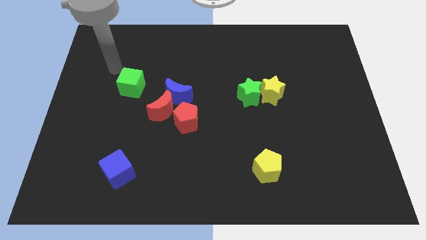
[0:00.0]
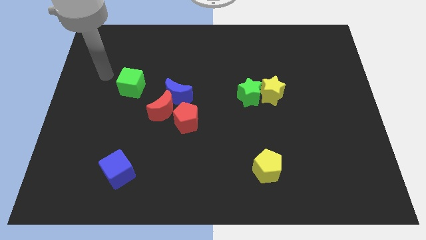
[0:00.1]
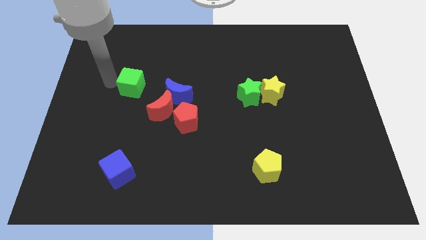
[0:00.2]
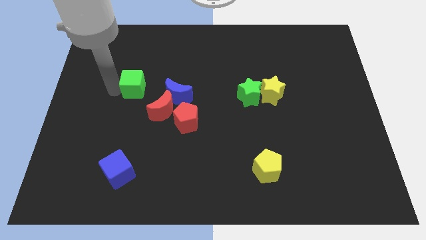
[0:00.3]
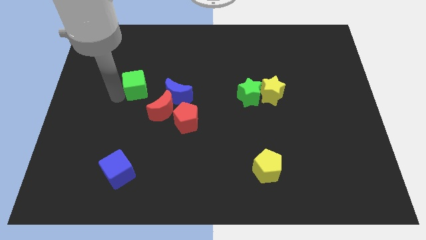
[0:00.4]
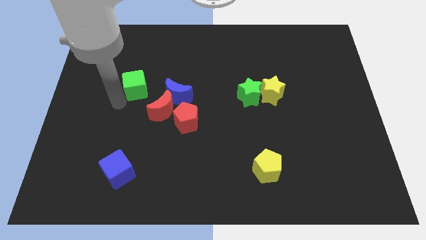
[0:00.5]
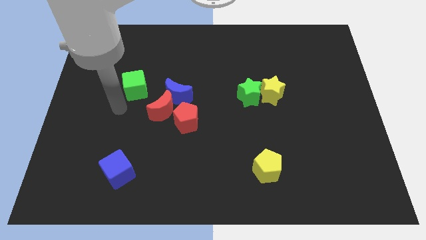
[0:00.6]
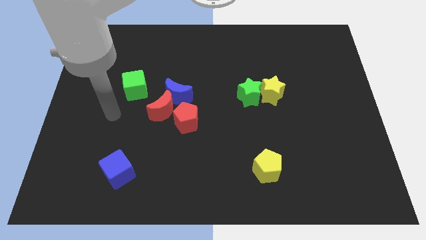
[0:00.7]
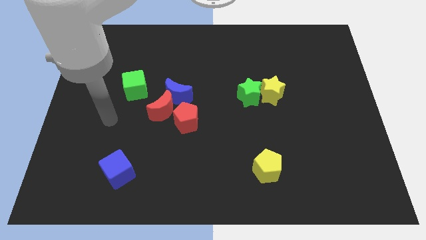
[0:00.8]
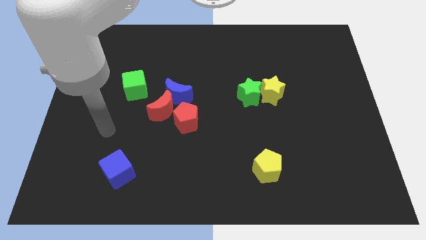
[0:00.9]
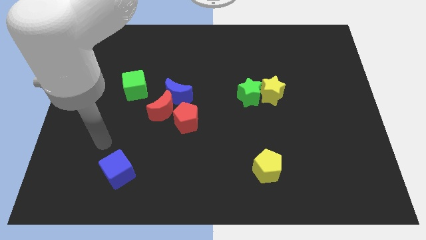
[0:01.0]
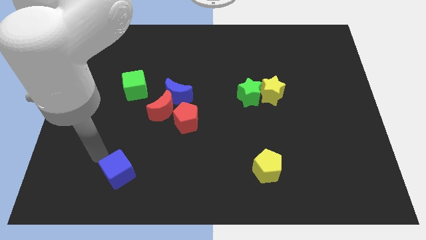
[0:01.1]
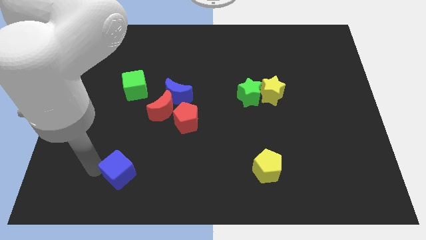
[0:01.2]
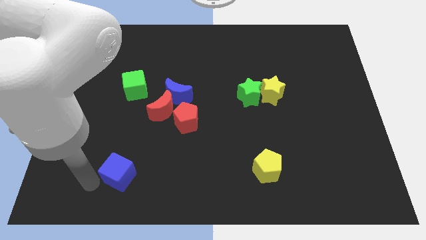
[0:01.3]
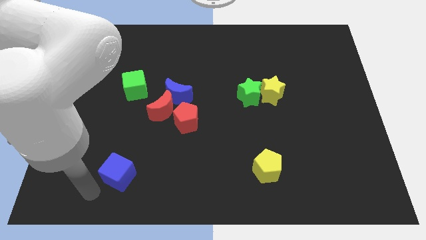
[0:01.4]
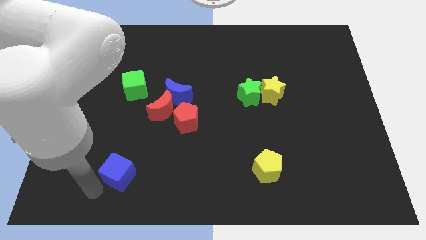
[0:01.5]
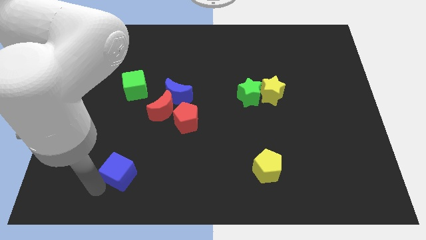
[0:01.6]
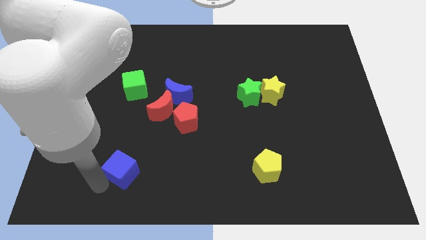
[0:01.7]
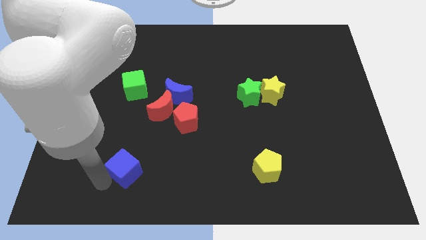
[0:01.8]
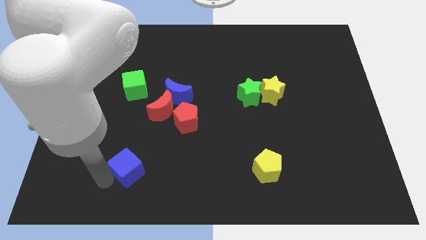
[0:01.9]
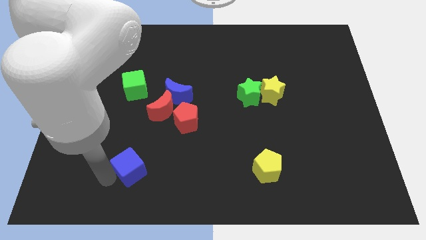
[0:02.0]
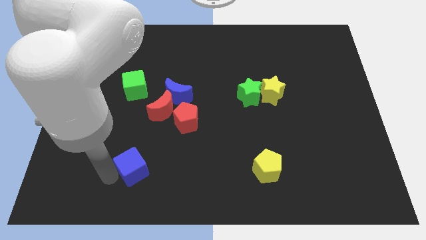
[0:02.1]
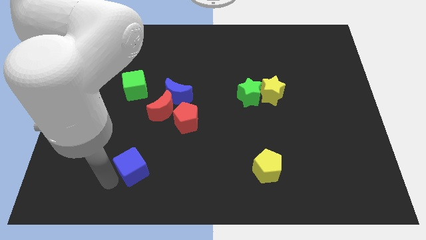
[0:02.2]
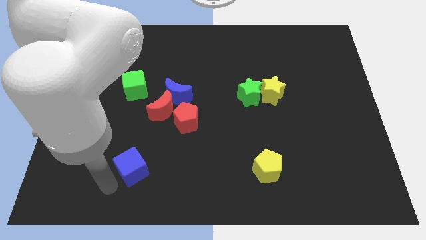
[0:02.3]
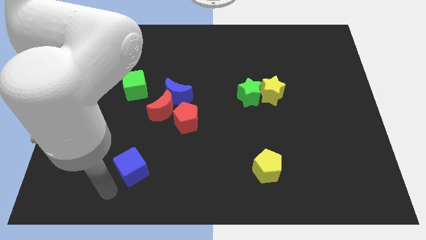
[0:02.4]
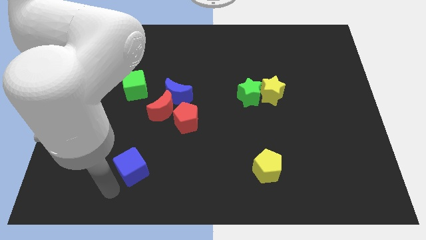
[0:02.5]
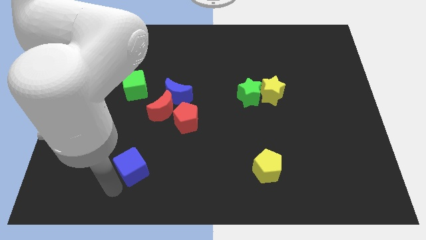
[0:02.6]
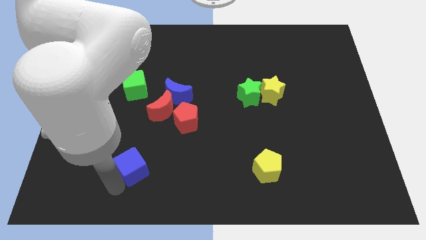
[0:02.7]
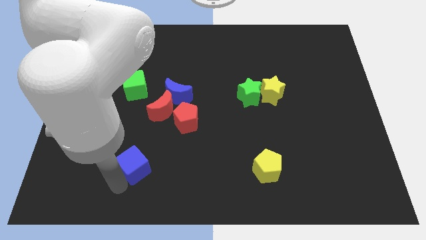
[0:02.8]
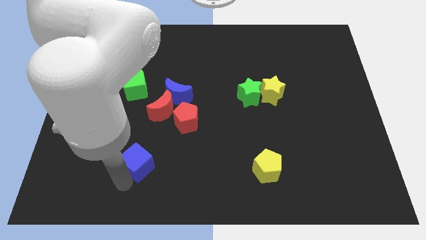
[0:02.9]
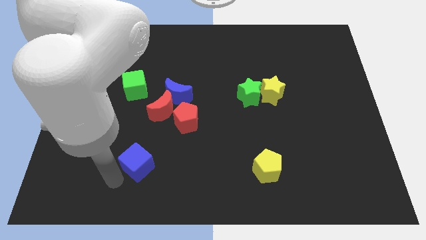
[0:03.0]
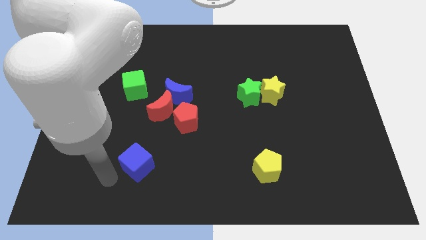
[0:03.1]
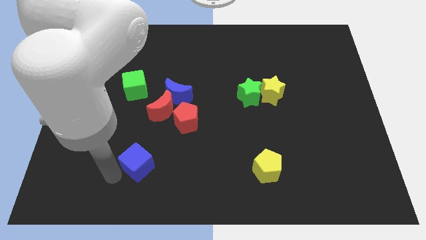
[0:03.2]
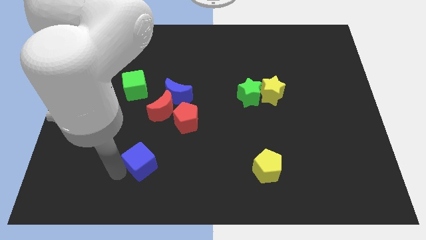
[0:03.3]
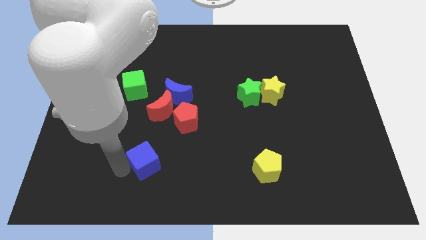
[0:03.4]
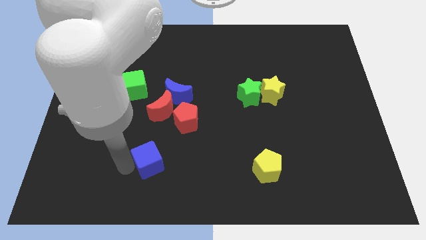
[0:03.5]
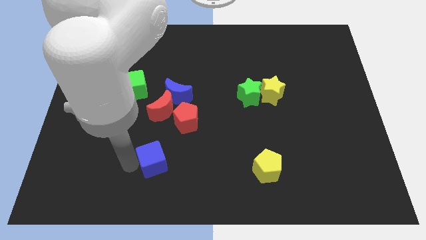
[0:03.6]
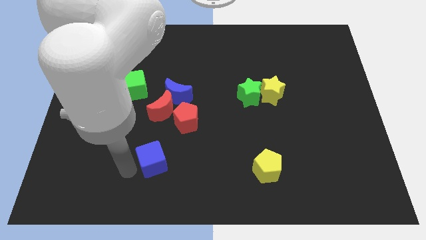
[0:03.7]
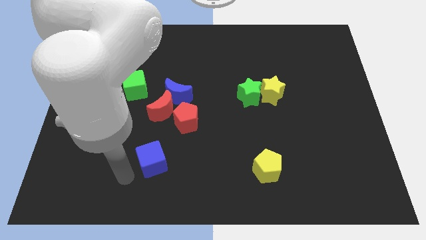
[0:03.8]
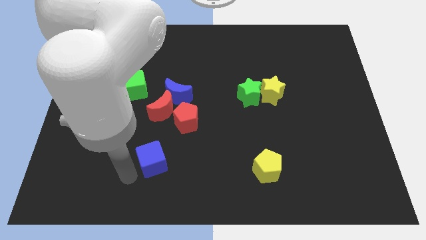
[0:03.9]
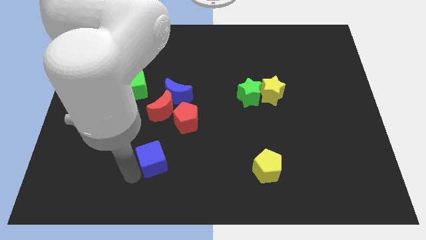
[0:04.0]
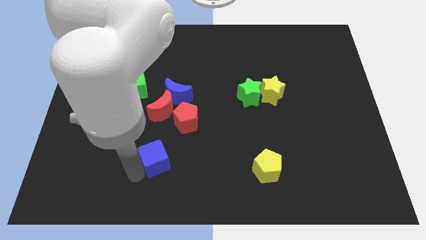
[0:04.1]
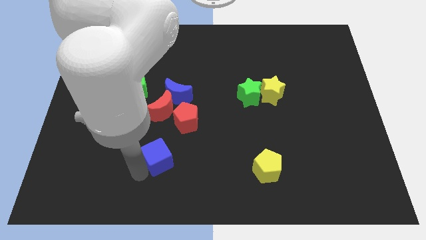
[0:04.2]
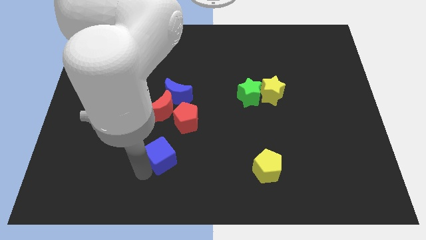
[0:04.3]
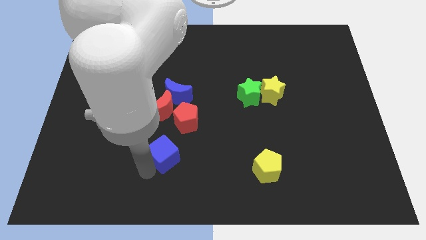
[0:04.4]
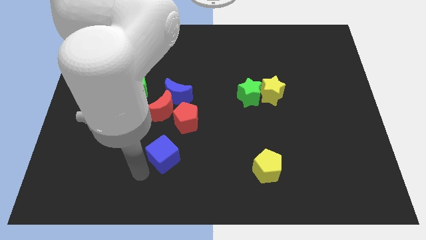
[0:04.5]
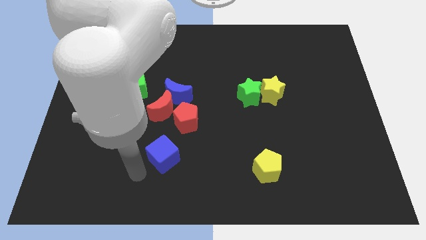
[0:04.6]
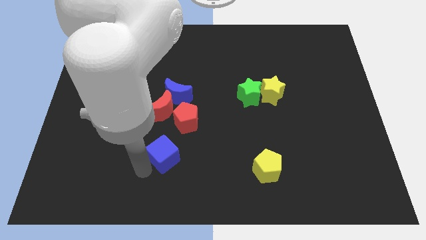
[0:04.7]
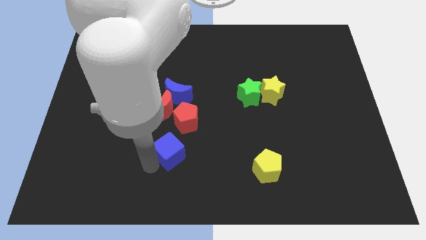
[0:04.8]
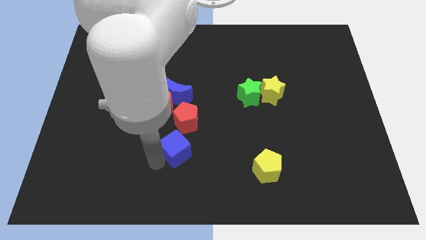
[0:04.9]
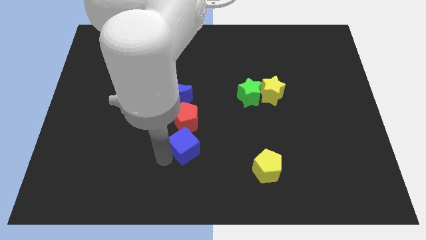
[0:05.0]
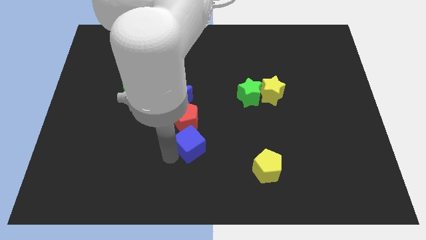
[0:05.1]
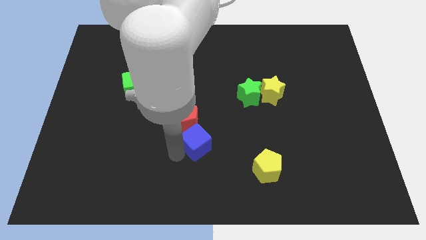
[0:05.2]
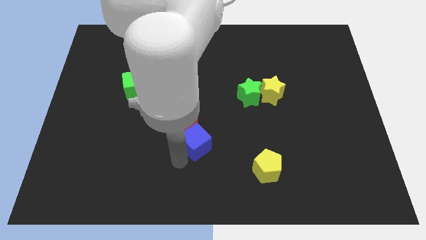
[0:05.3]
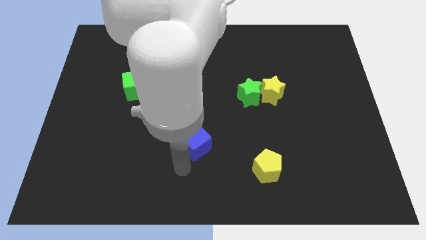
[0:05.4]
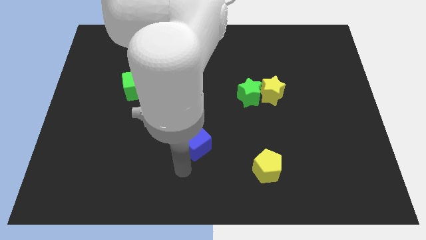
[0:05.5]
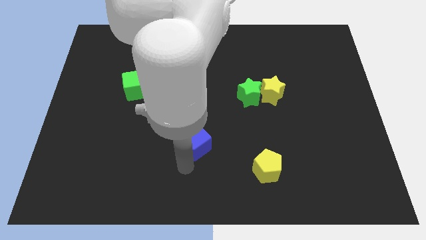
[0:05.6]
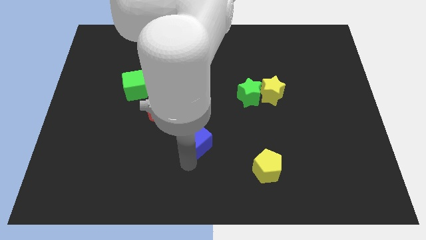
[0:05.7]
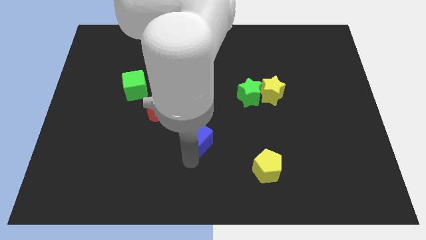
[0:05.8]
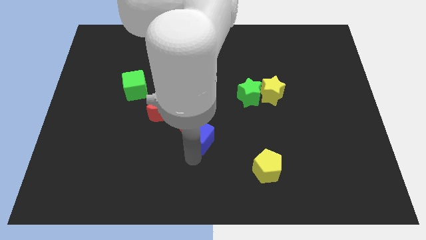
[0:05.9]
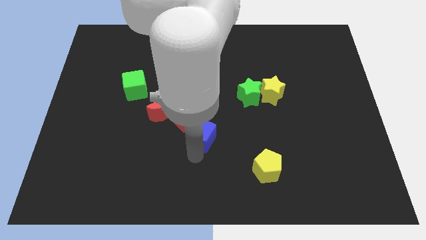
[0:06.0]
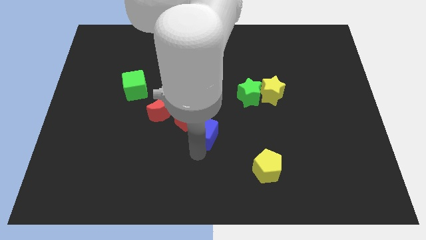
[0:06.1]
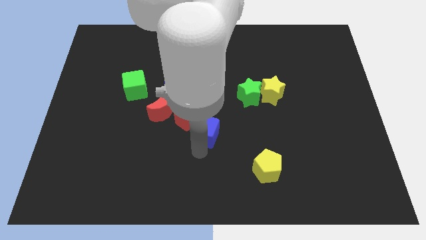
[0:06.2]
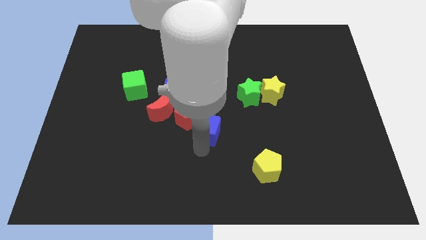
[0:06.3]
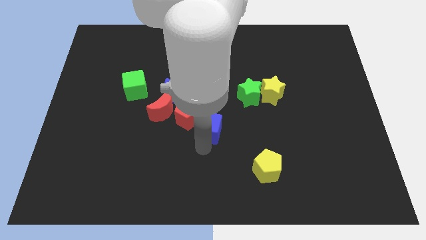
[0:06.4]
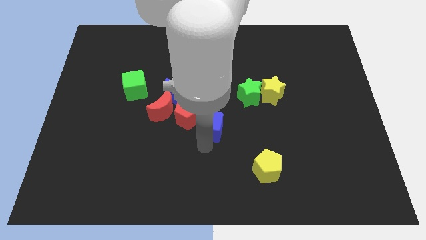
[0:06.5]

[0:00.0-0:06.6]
push the blue cube upwards and to the right

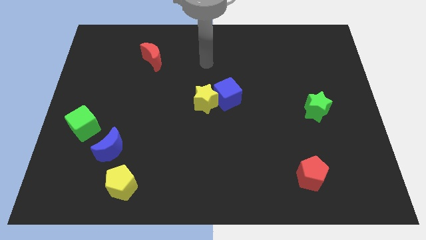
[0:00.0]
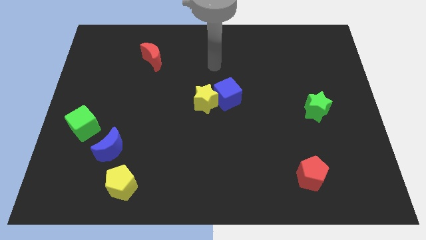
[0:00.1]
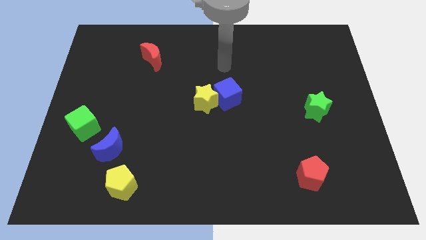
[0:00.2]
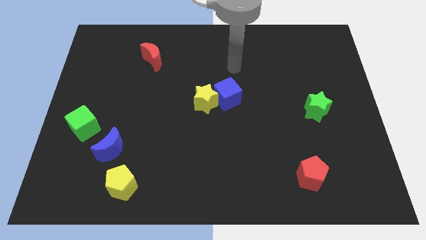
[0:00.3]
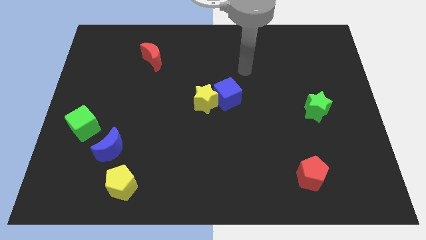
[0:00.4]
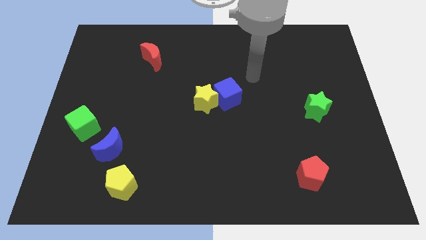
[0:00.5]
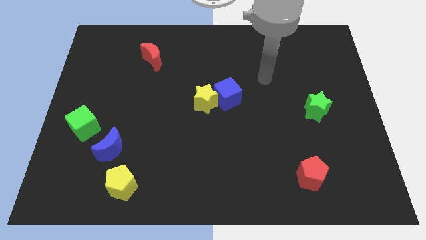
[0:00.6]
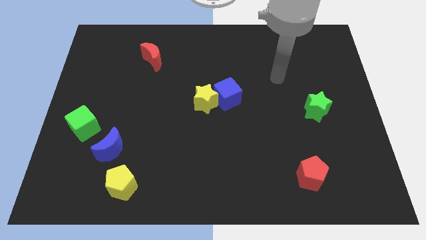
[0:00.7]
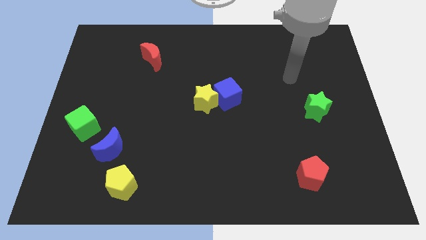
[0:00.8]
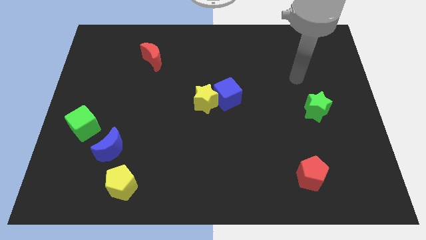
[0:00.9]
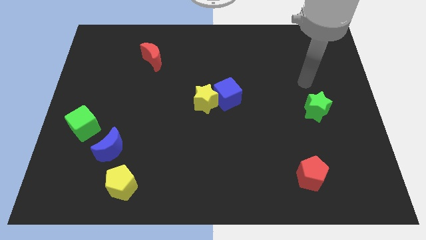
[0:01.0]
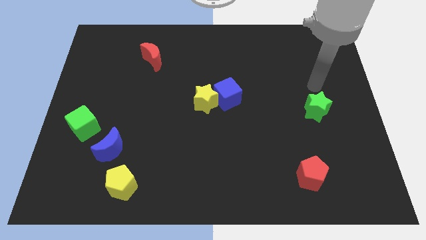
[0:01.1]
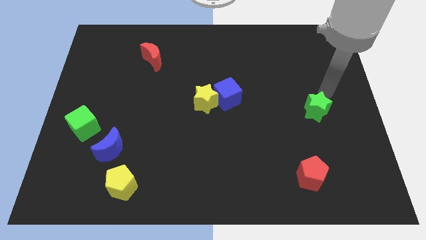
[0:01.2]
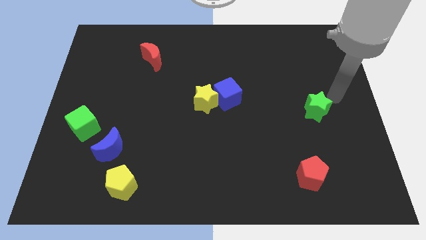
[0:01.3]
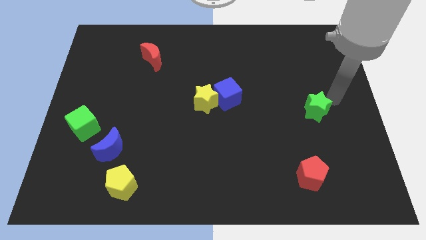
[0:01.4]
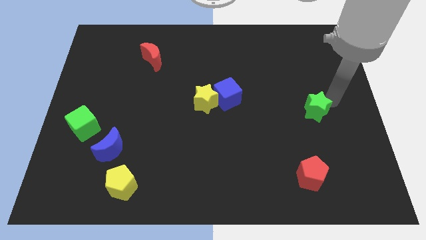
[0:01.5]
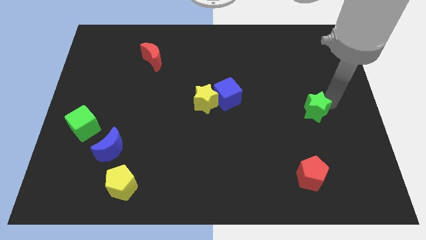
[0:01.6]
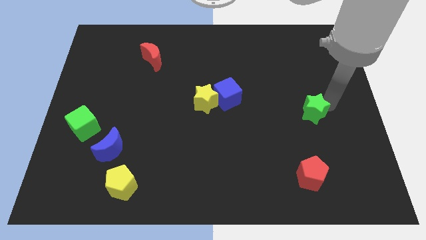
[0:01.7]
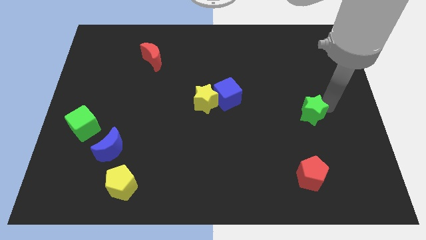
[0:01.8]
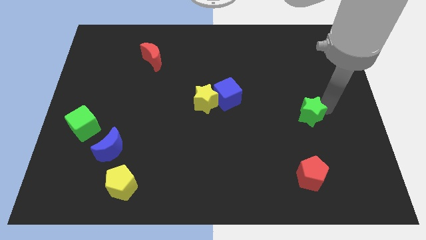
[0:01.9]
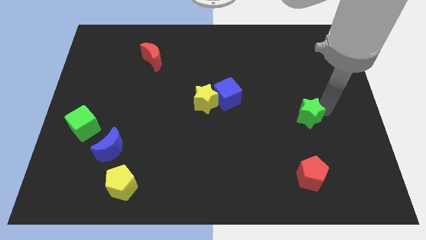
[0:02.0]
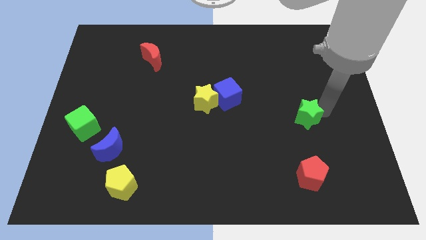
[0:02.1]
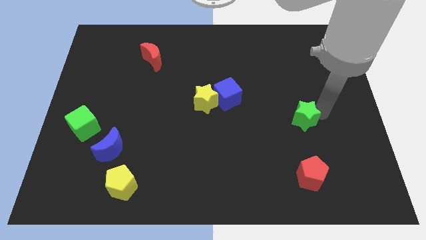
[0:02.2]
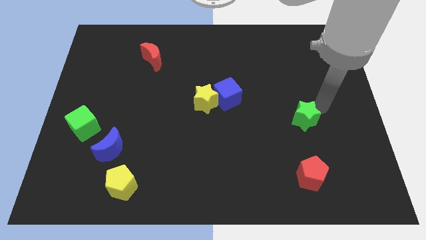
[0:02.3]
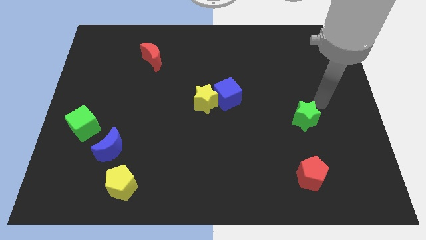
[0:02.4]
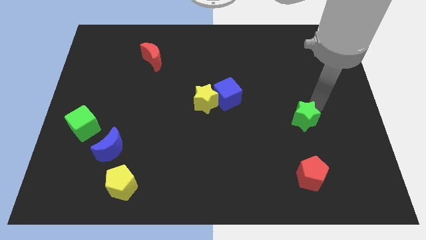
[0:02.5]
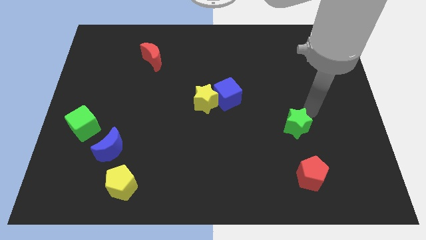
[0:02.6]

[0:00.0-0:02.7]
move the green star diagonally down and left a little bit
